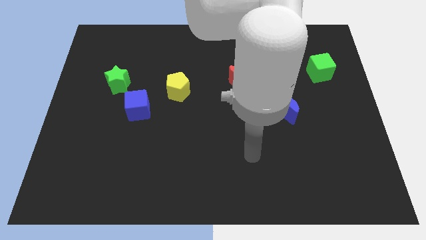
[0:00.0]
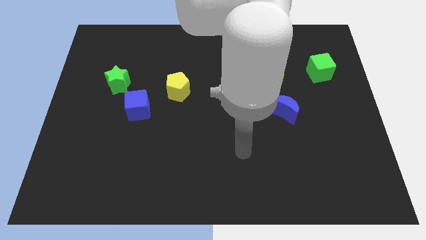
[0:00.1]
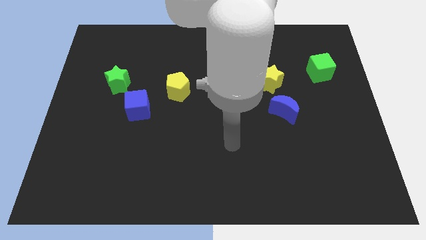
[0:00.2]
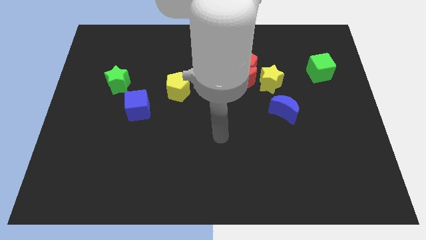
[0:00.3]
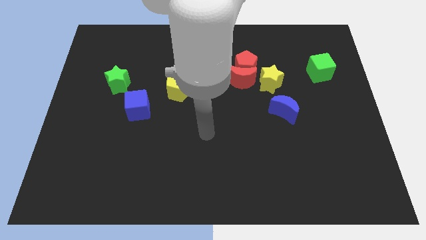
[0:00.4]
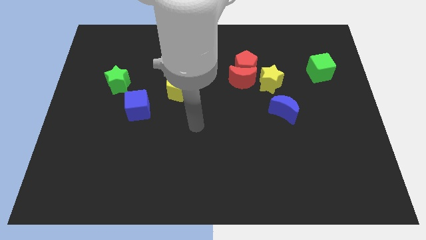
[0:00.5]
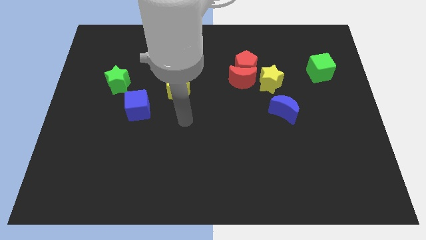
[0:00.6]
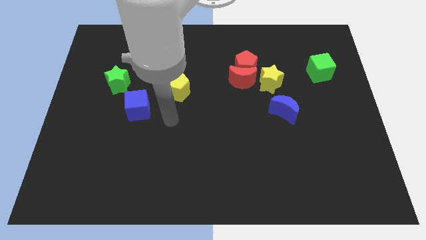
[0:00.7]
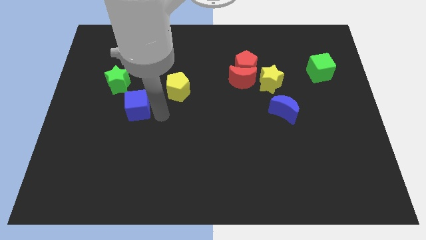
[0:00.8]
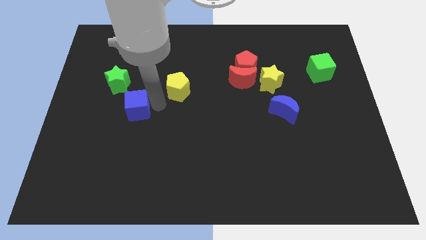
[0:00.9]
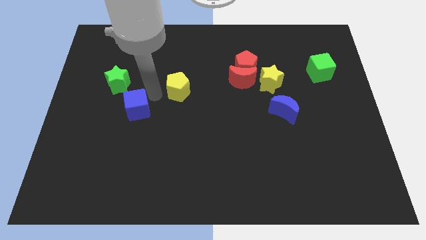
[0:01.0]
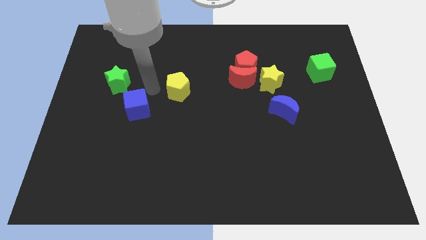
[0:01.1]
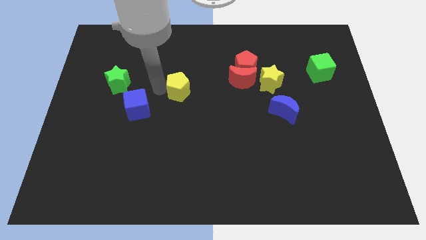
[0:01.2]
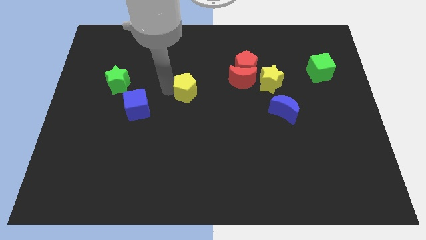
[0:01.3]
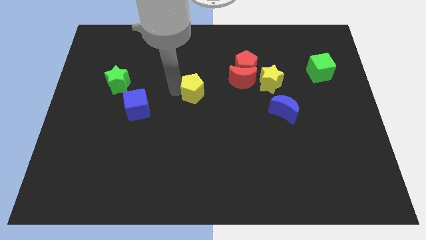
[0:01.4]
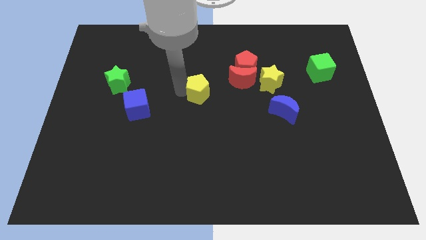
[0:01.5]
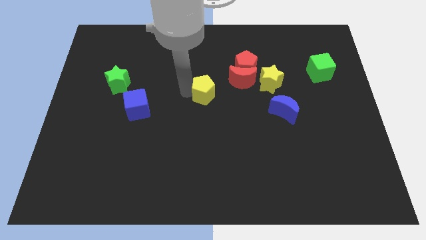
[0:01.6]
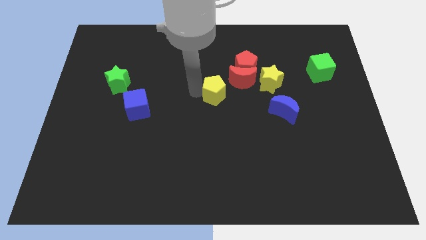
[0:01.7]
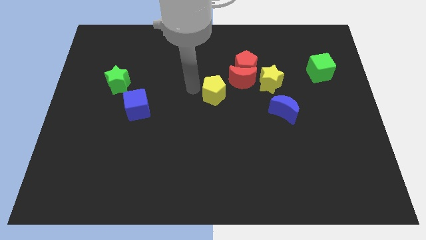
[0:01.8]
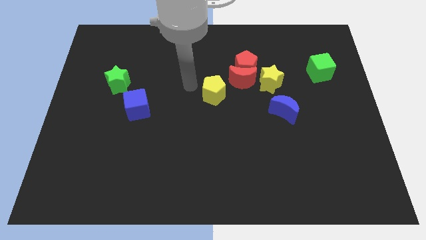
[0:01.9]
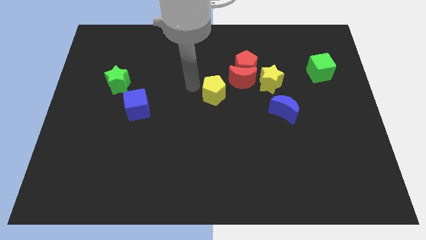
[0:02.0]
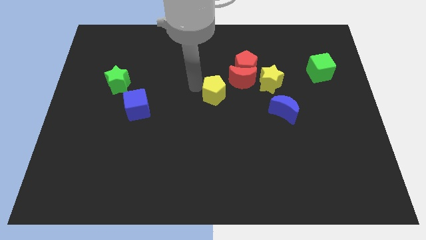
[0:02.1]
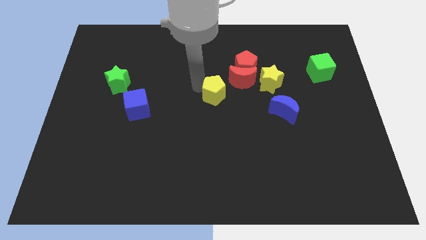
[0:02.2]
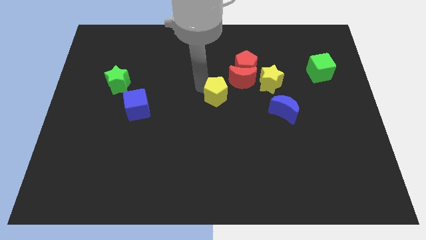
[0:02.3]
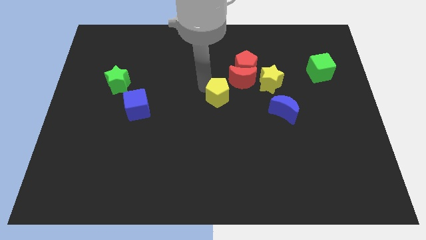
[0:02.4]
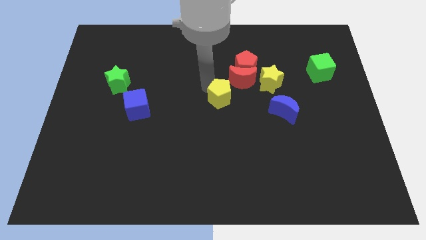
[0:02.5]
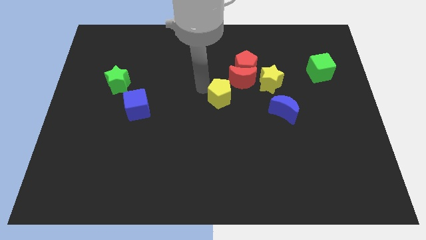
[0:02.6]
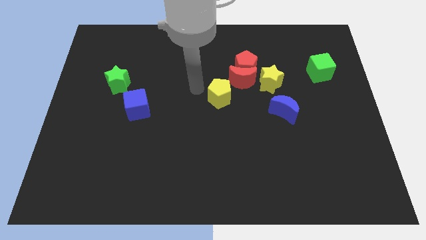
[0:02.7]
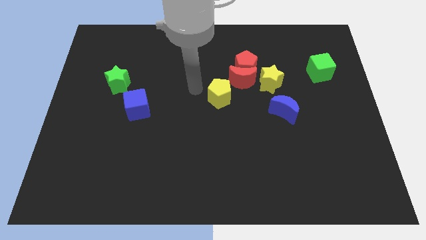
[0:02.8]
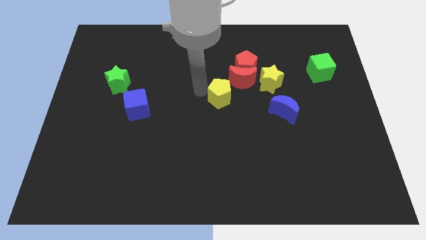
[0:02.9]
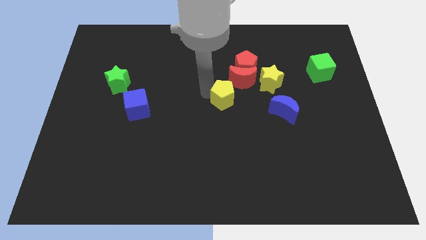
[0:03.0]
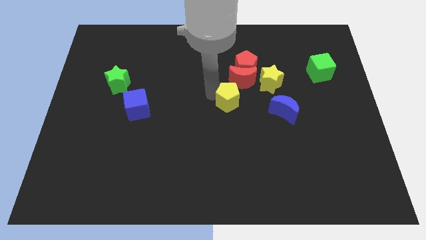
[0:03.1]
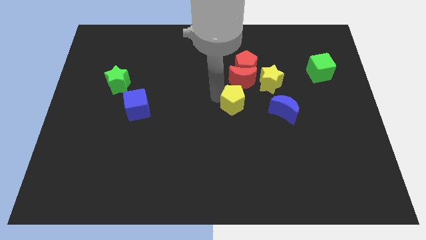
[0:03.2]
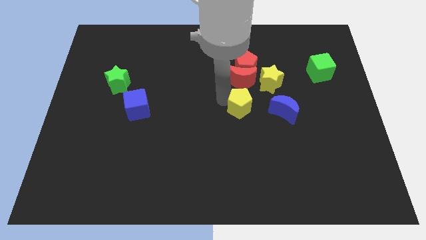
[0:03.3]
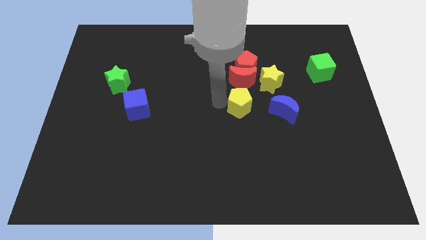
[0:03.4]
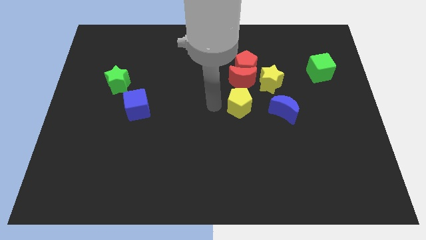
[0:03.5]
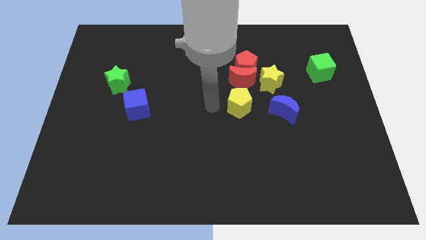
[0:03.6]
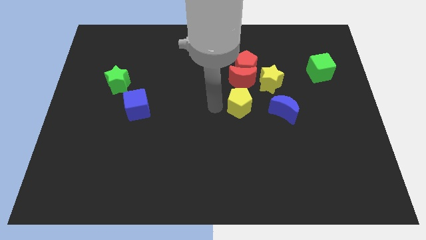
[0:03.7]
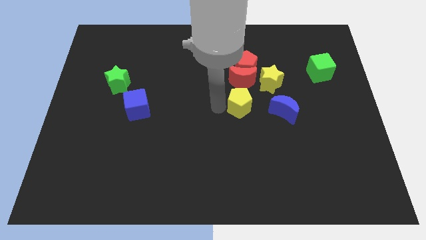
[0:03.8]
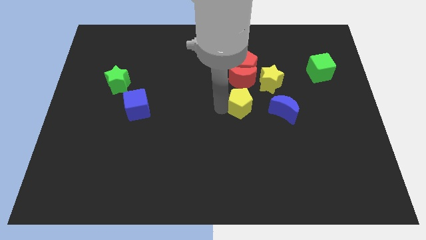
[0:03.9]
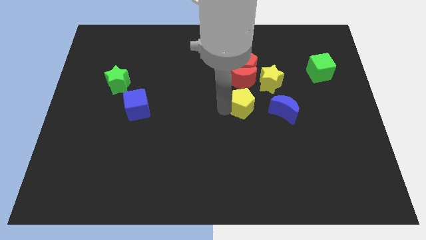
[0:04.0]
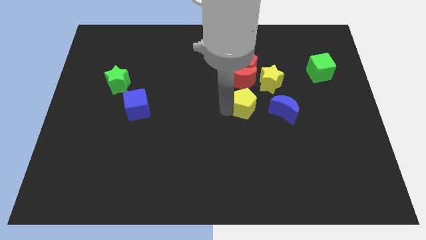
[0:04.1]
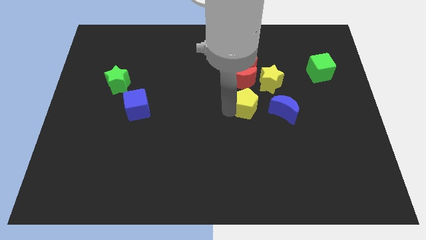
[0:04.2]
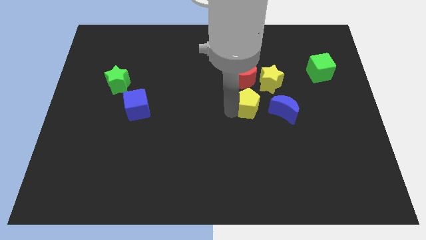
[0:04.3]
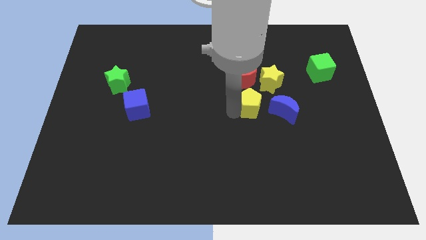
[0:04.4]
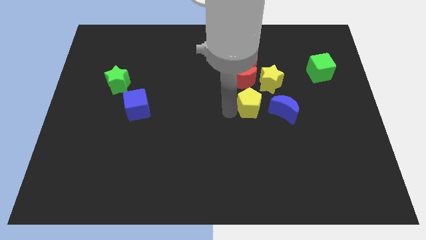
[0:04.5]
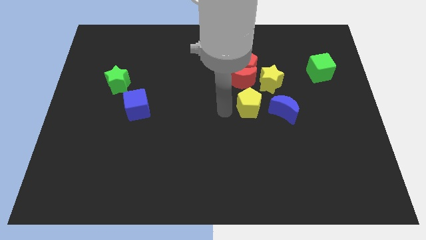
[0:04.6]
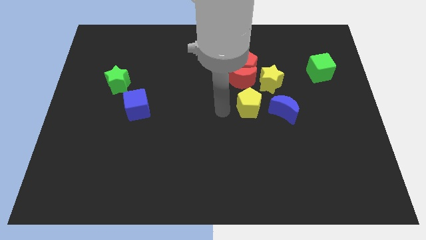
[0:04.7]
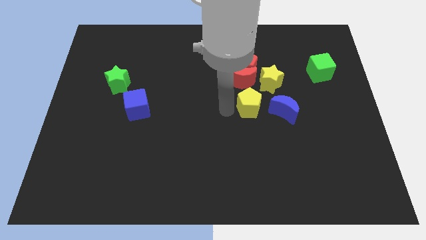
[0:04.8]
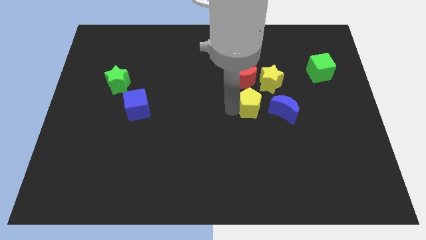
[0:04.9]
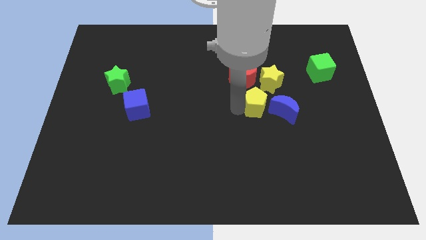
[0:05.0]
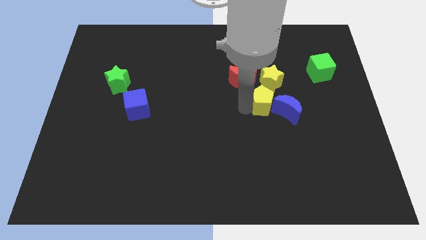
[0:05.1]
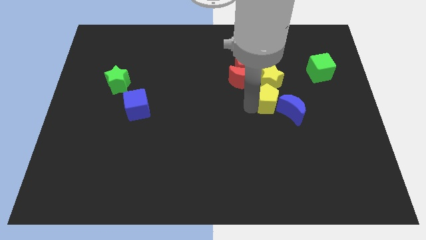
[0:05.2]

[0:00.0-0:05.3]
slide the yellow pentagon right

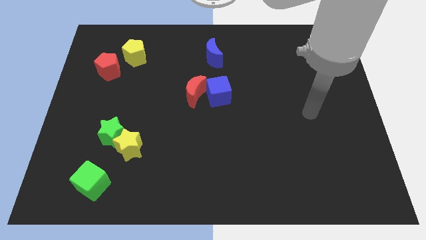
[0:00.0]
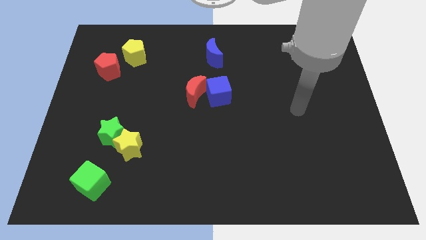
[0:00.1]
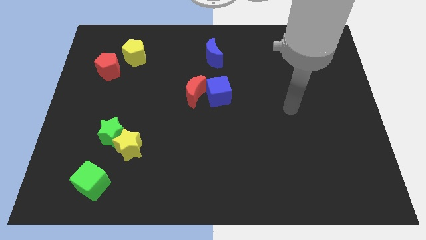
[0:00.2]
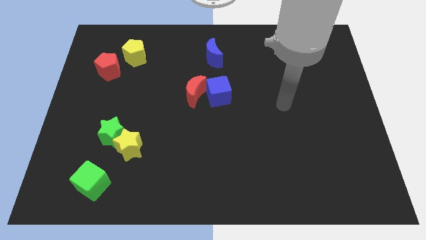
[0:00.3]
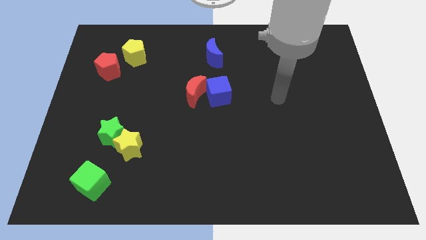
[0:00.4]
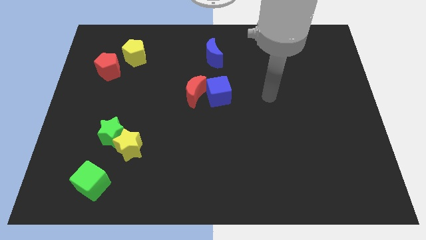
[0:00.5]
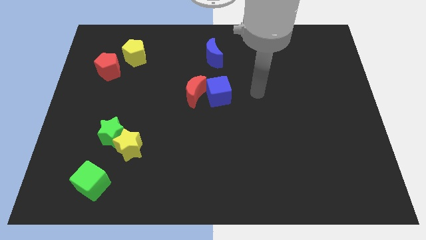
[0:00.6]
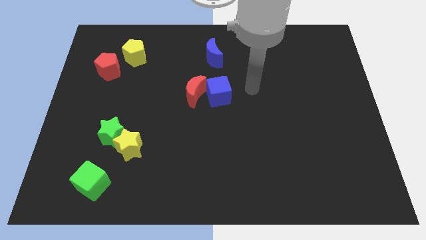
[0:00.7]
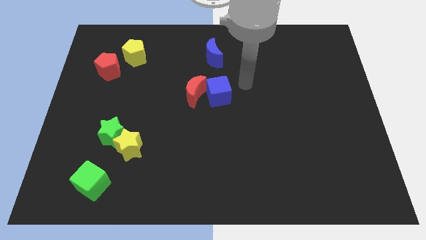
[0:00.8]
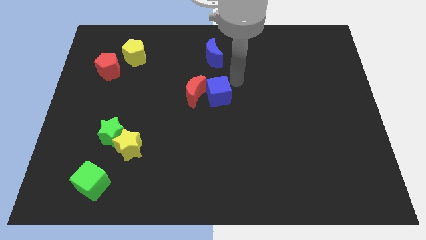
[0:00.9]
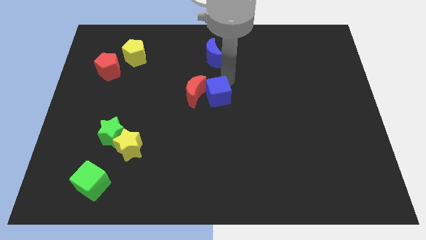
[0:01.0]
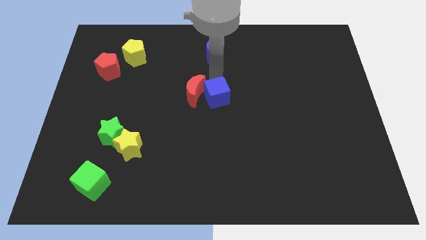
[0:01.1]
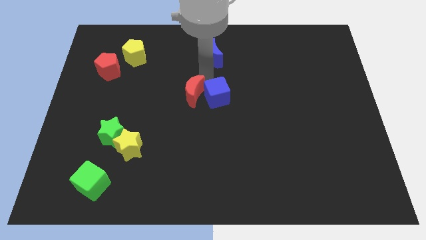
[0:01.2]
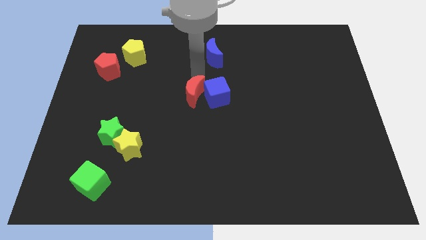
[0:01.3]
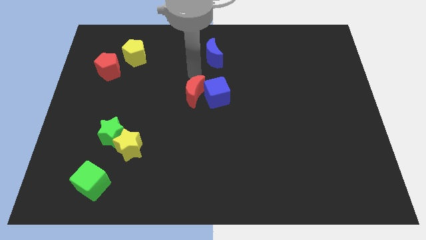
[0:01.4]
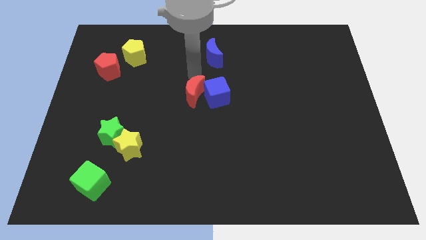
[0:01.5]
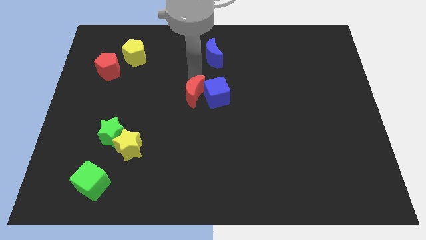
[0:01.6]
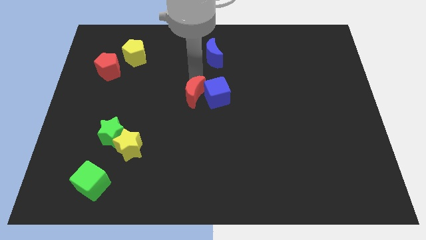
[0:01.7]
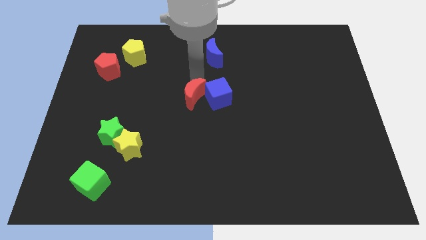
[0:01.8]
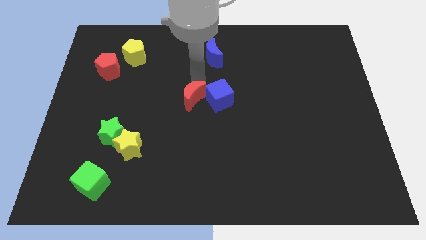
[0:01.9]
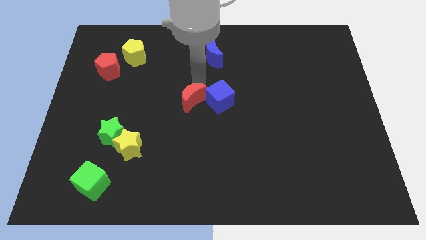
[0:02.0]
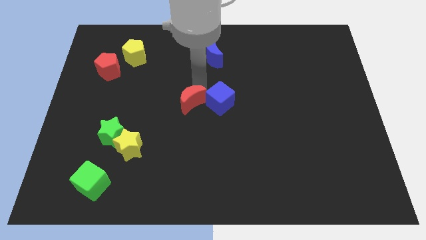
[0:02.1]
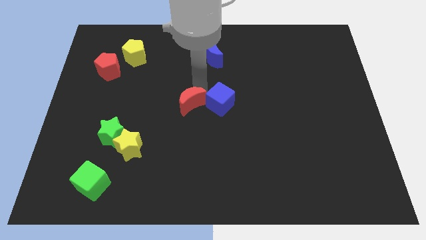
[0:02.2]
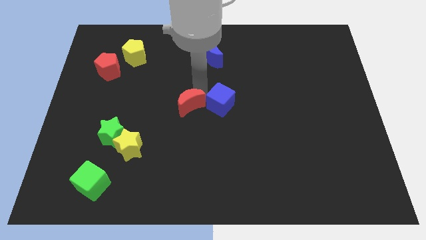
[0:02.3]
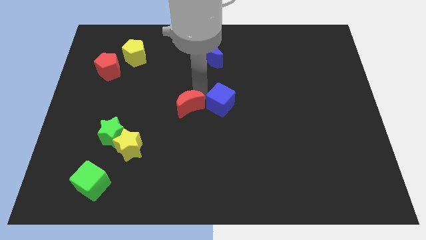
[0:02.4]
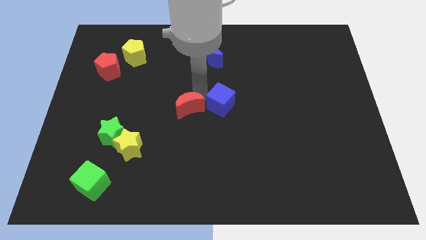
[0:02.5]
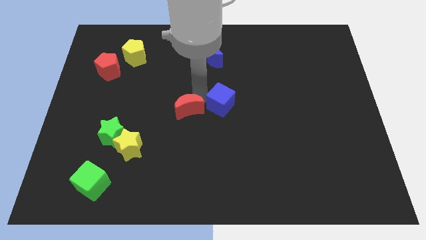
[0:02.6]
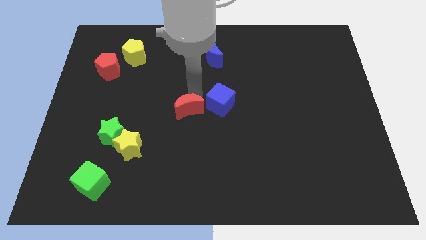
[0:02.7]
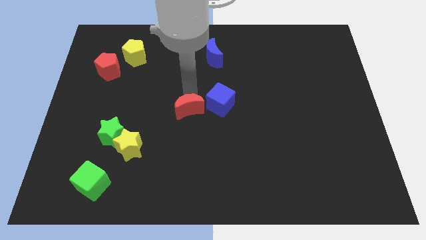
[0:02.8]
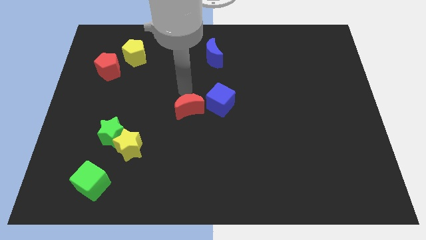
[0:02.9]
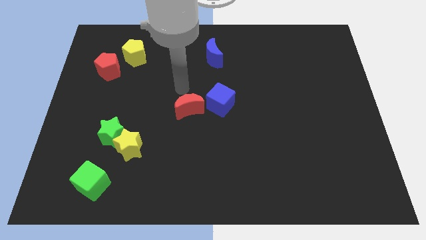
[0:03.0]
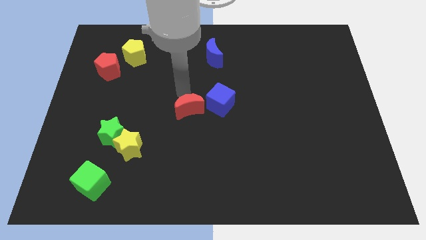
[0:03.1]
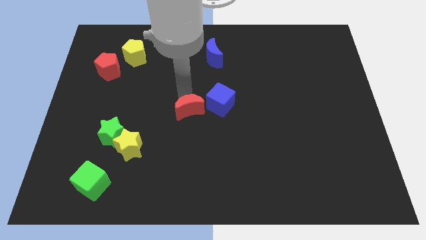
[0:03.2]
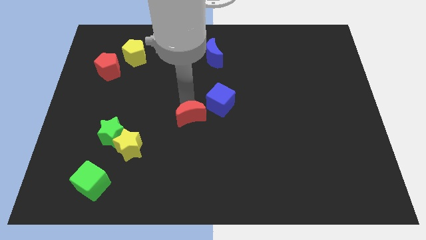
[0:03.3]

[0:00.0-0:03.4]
slide the red moon slightly downwards
